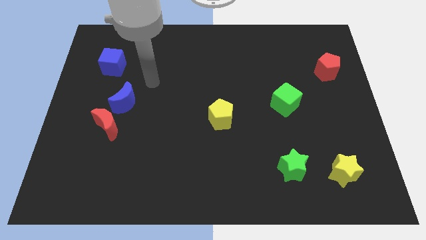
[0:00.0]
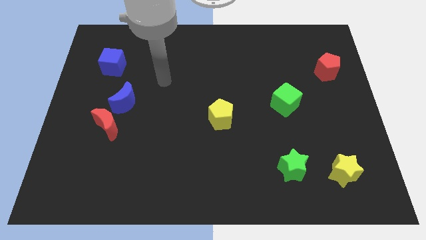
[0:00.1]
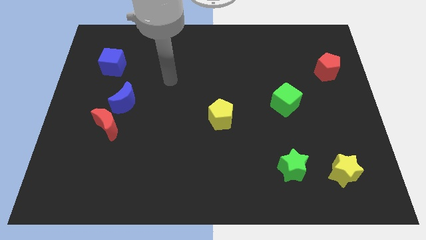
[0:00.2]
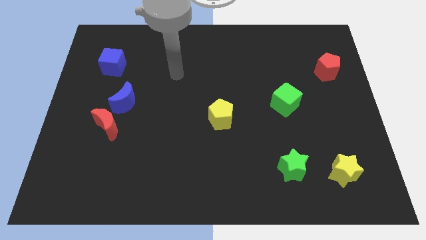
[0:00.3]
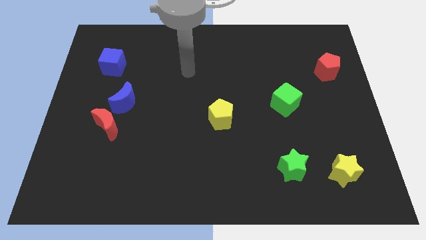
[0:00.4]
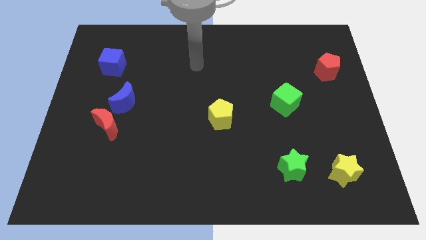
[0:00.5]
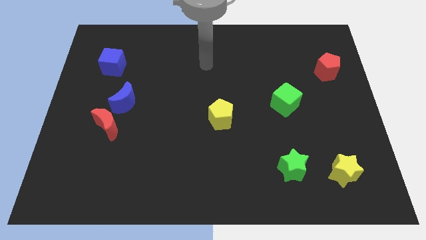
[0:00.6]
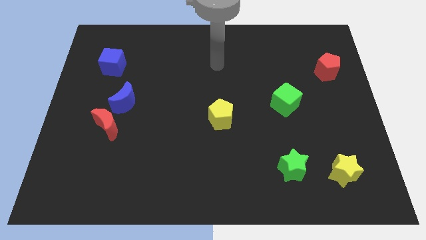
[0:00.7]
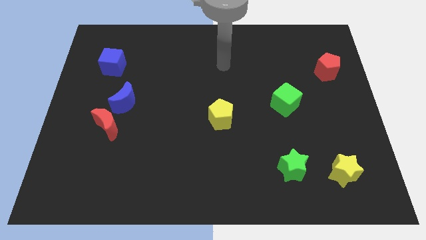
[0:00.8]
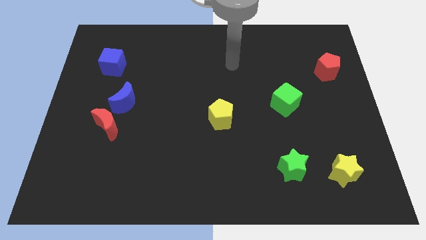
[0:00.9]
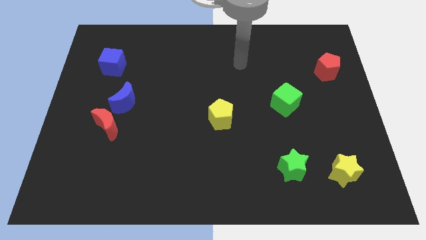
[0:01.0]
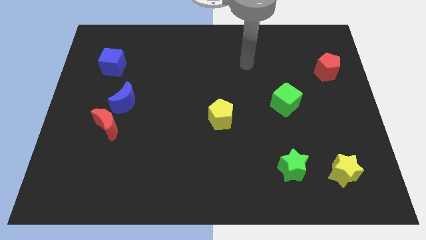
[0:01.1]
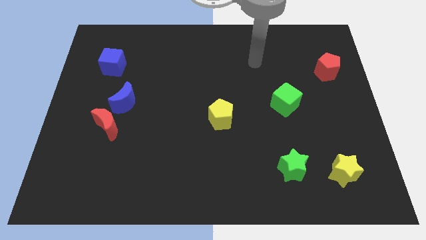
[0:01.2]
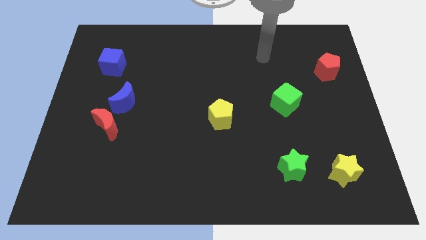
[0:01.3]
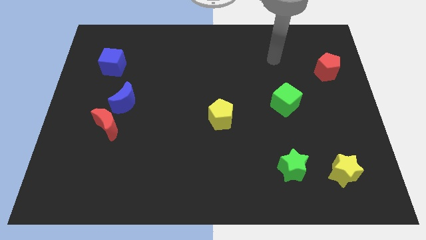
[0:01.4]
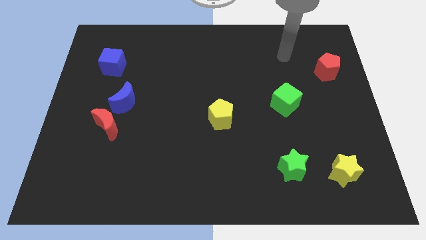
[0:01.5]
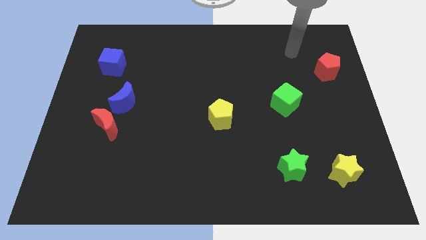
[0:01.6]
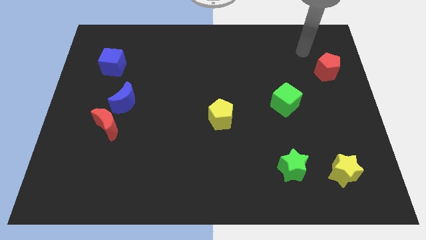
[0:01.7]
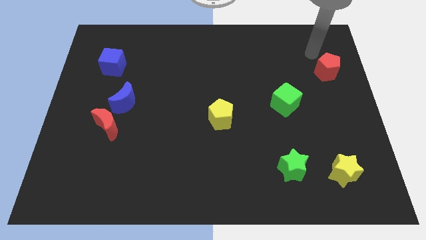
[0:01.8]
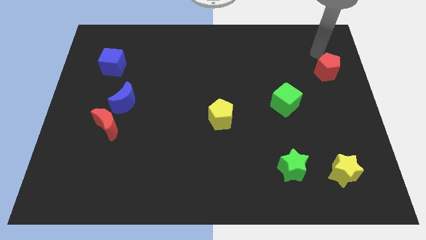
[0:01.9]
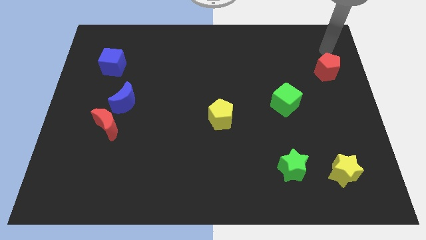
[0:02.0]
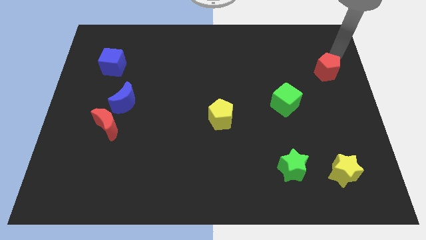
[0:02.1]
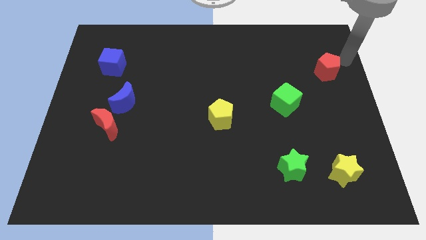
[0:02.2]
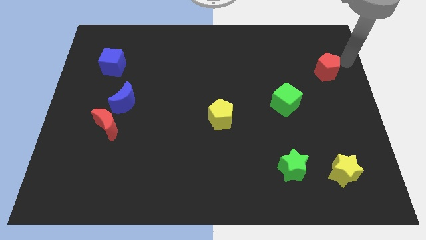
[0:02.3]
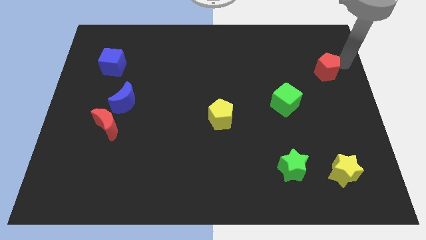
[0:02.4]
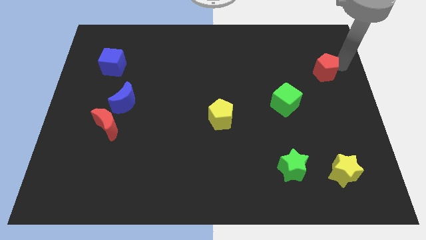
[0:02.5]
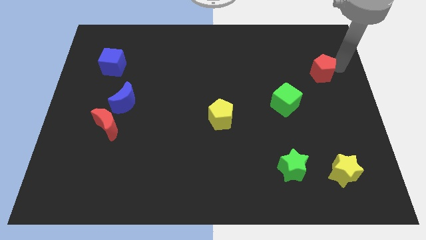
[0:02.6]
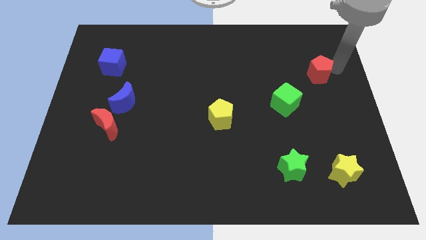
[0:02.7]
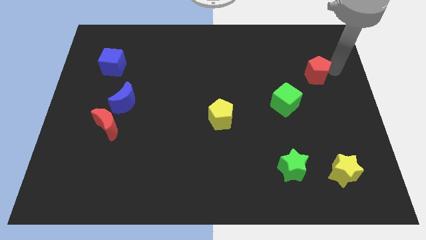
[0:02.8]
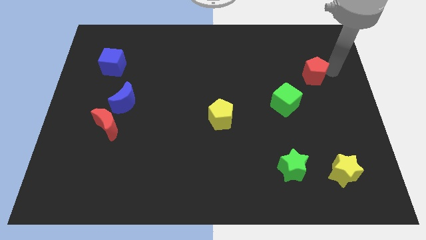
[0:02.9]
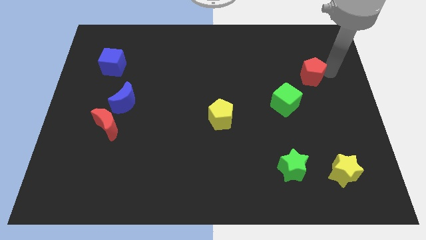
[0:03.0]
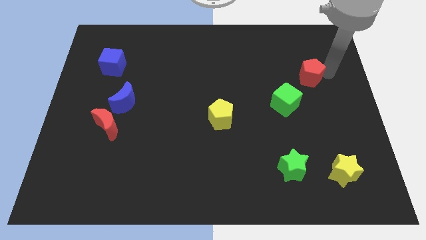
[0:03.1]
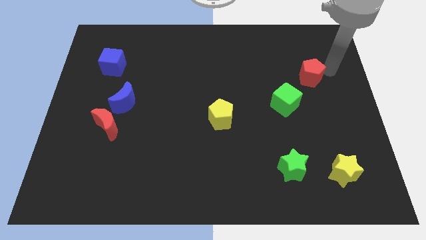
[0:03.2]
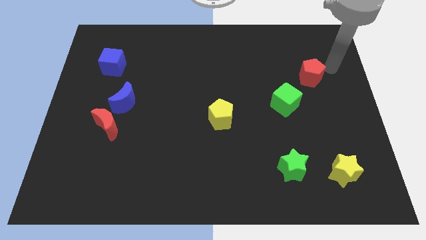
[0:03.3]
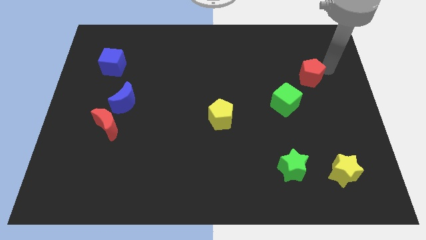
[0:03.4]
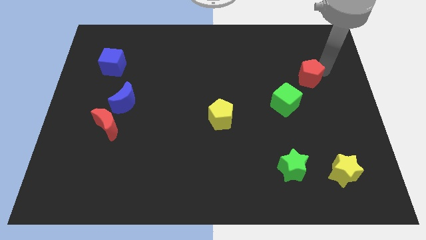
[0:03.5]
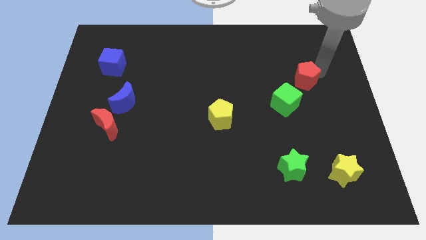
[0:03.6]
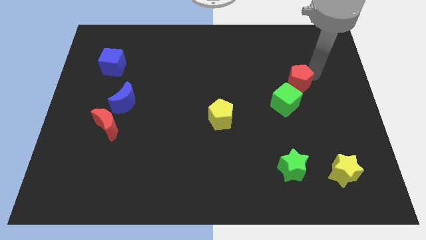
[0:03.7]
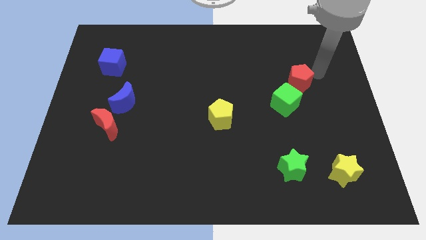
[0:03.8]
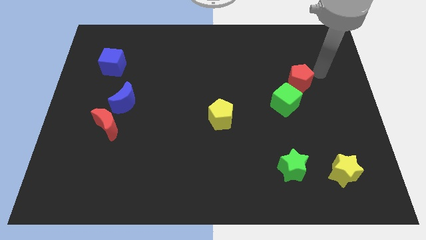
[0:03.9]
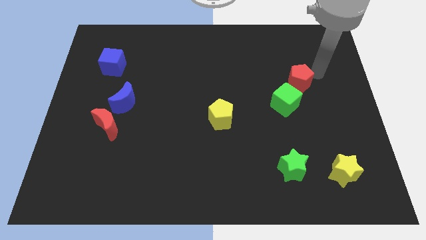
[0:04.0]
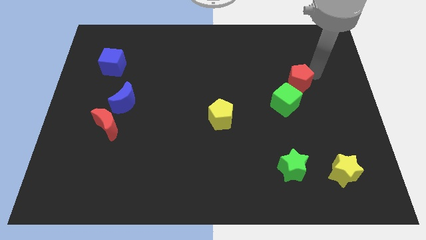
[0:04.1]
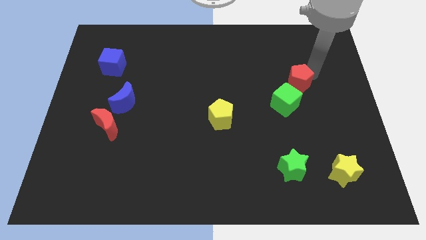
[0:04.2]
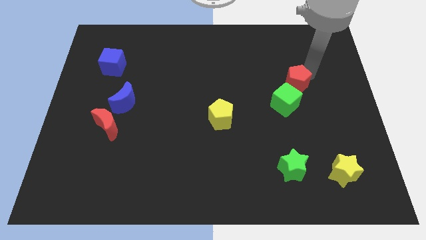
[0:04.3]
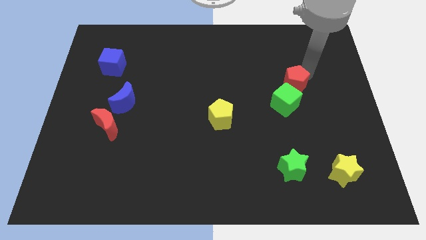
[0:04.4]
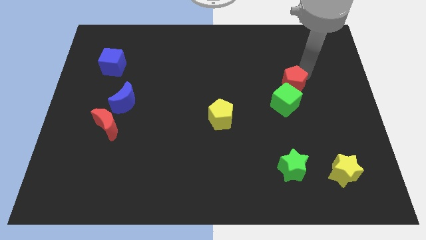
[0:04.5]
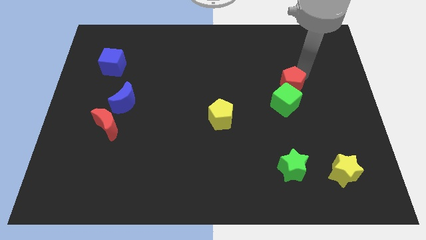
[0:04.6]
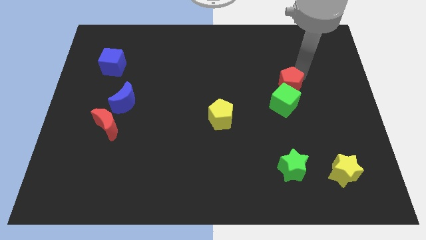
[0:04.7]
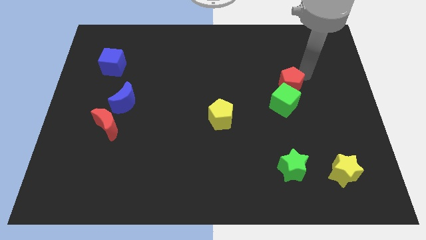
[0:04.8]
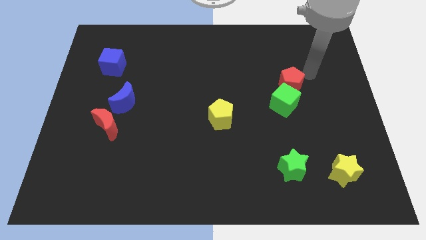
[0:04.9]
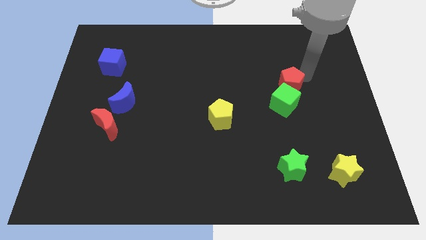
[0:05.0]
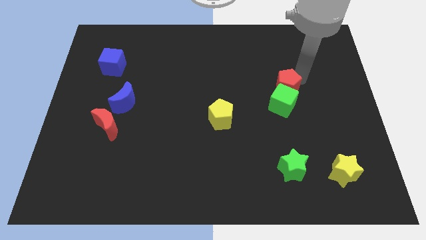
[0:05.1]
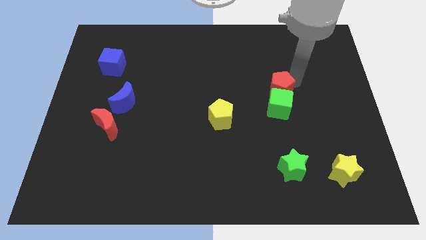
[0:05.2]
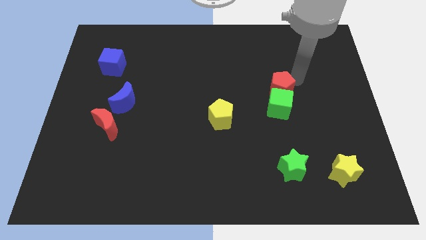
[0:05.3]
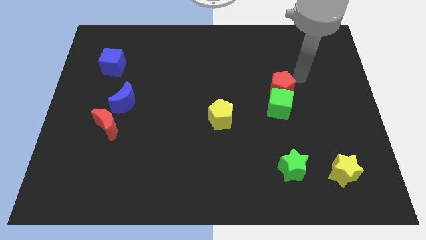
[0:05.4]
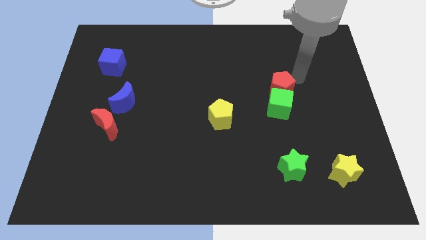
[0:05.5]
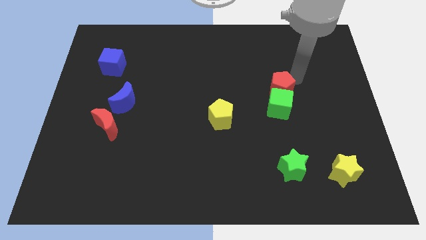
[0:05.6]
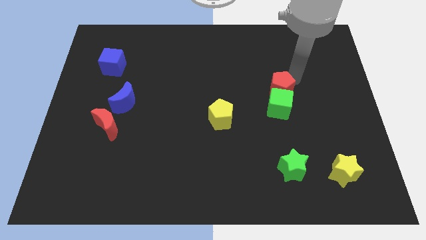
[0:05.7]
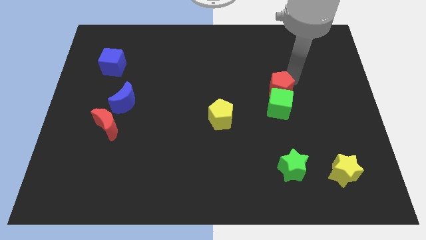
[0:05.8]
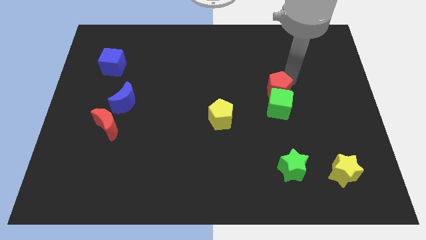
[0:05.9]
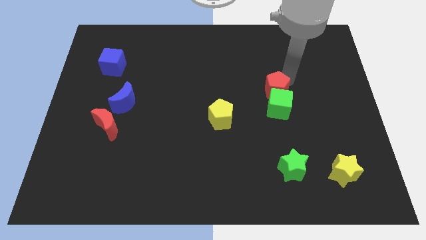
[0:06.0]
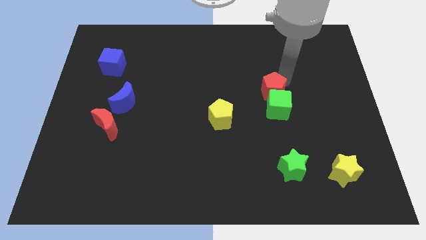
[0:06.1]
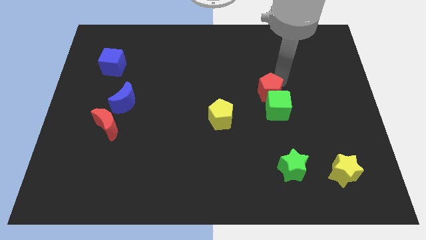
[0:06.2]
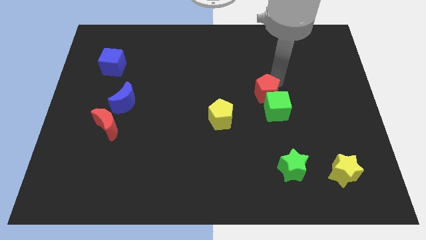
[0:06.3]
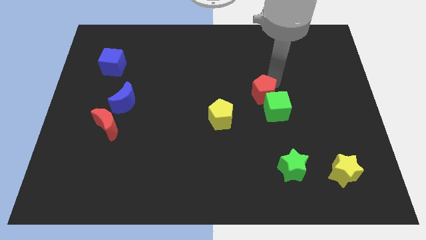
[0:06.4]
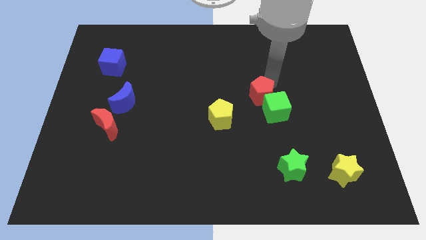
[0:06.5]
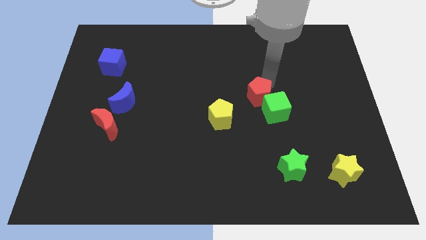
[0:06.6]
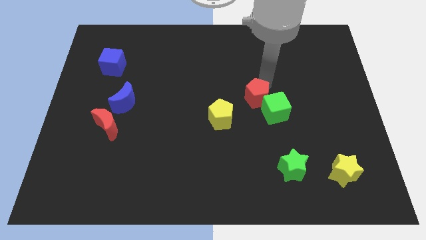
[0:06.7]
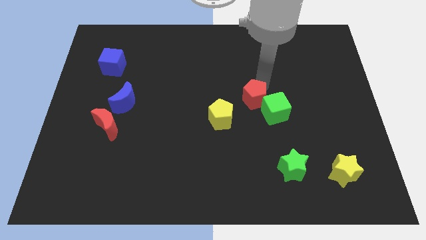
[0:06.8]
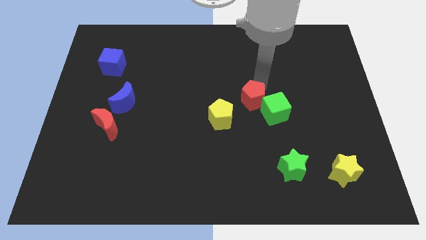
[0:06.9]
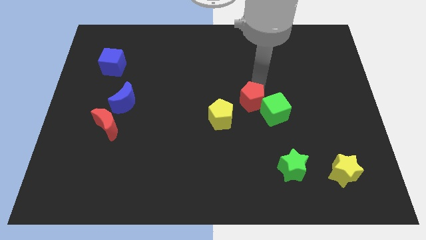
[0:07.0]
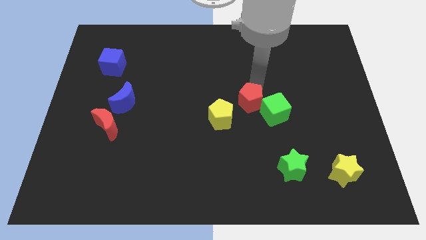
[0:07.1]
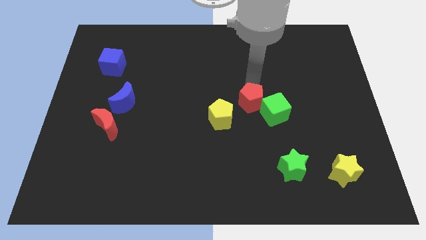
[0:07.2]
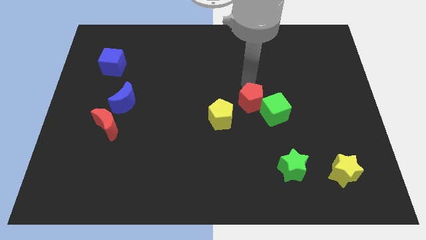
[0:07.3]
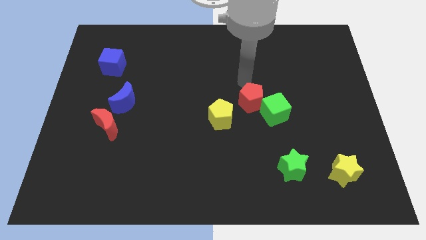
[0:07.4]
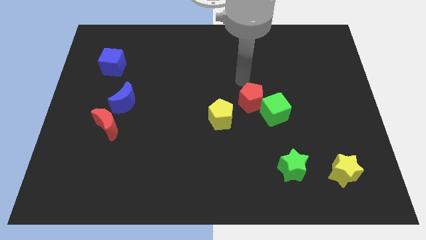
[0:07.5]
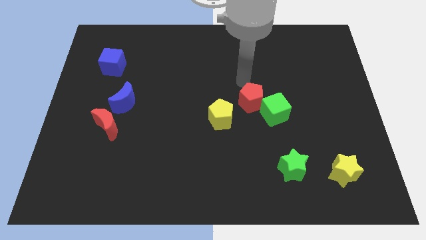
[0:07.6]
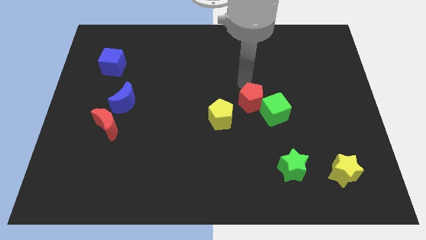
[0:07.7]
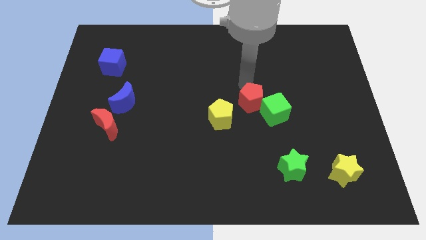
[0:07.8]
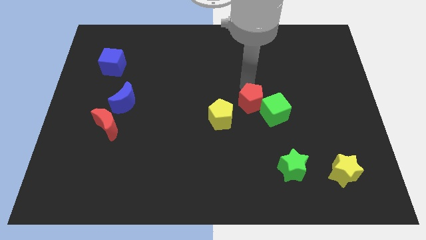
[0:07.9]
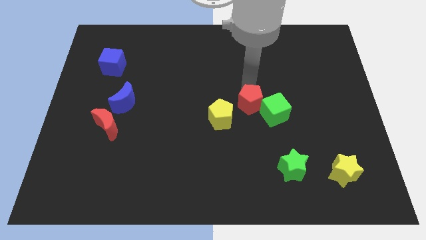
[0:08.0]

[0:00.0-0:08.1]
move the red pentagon down and then to the left
